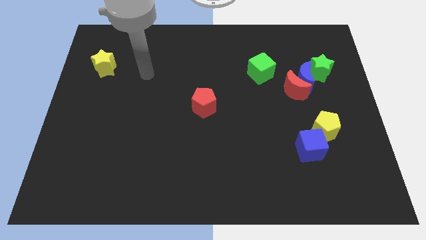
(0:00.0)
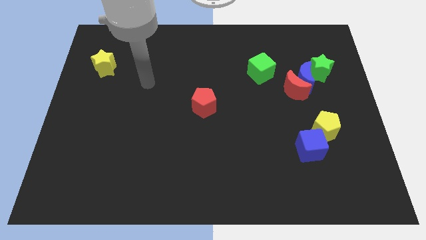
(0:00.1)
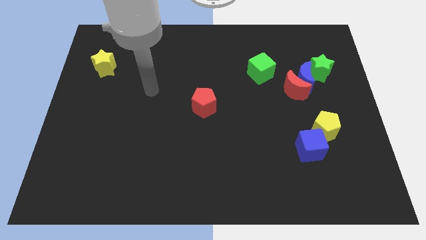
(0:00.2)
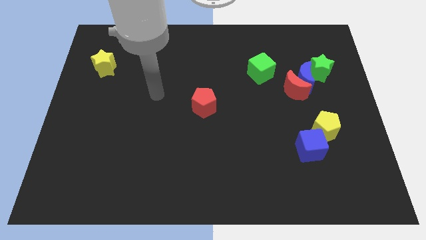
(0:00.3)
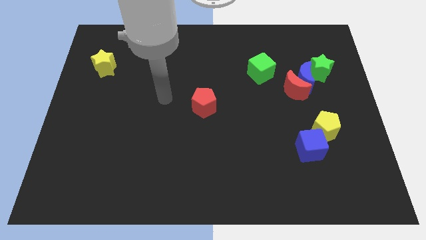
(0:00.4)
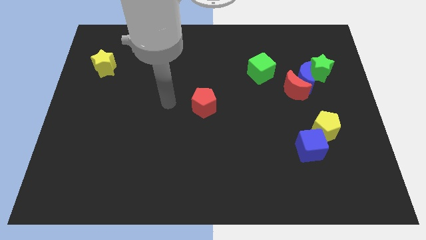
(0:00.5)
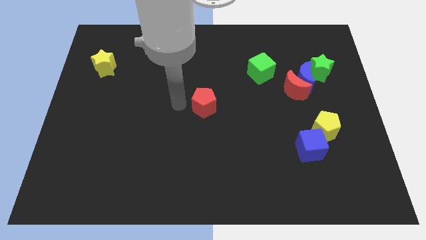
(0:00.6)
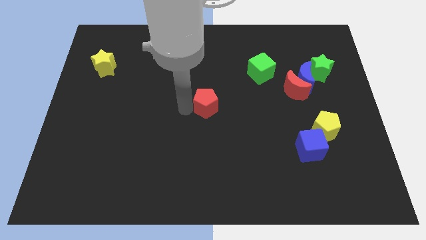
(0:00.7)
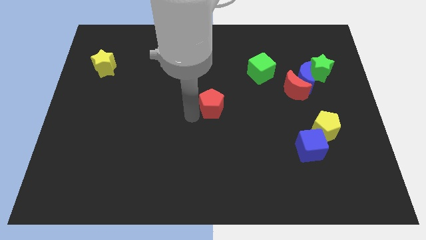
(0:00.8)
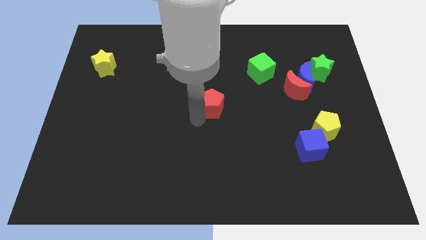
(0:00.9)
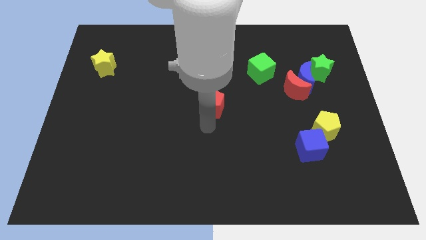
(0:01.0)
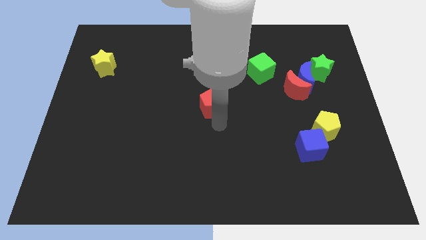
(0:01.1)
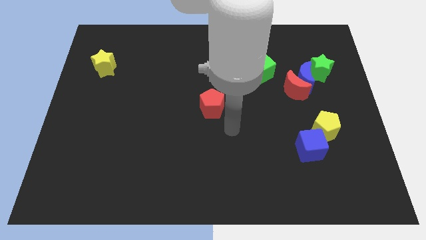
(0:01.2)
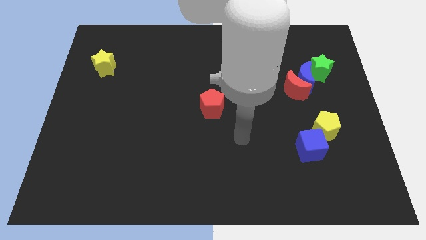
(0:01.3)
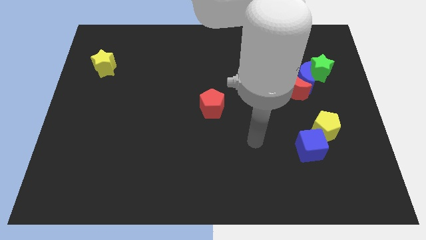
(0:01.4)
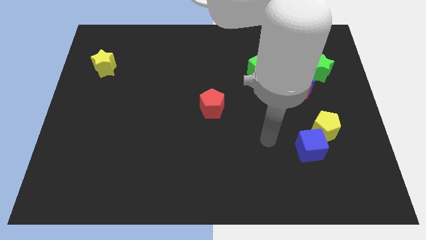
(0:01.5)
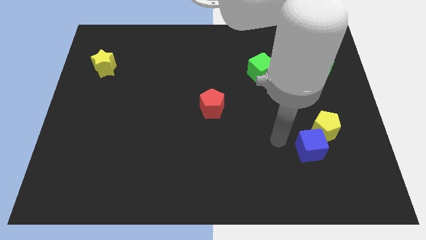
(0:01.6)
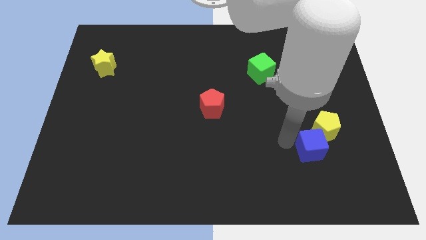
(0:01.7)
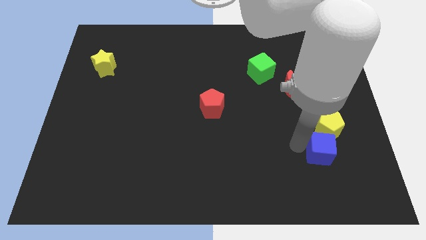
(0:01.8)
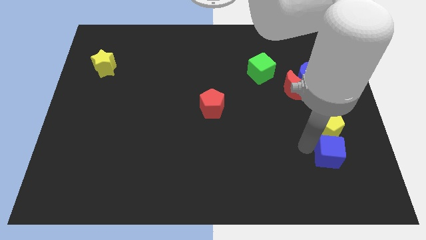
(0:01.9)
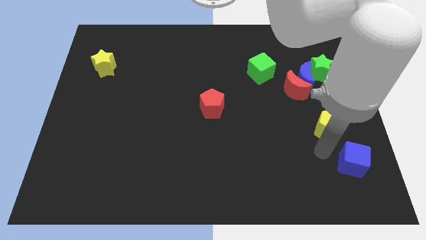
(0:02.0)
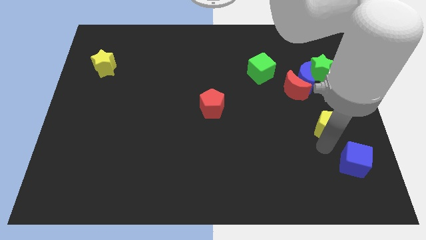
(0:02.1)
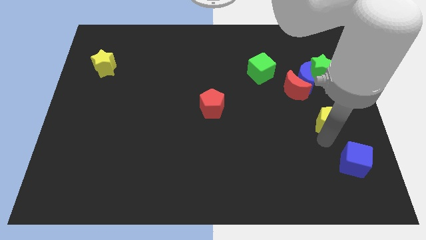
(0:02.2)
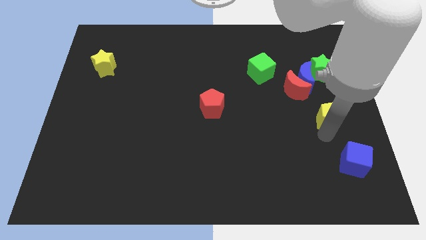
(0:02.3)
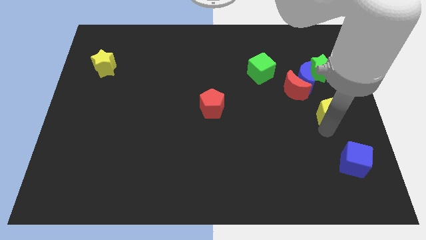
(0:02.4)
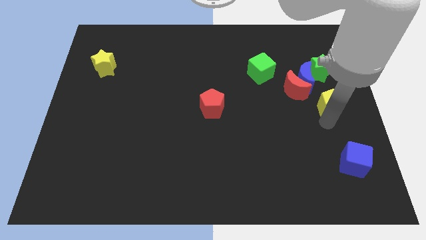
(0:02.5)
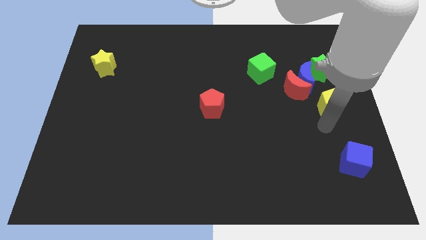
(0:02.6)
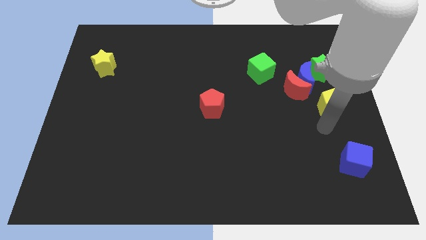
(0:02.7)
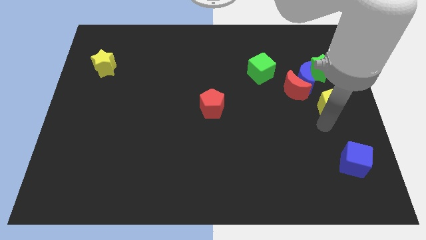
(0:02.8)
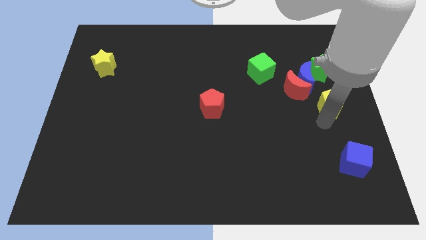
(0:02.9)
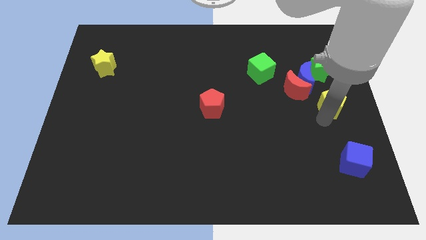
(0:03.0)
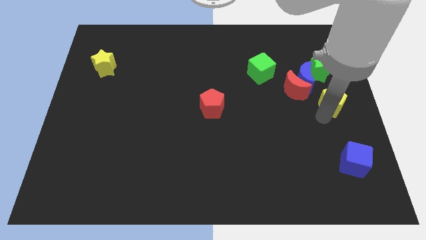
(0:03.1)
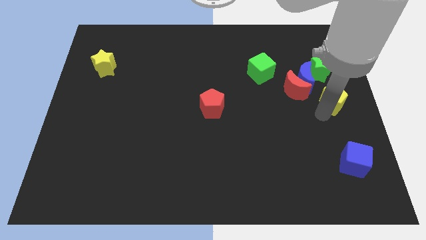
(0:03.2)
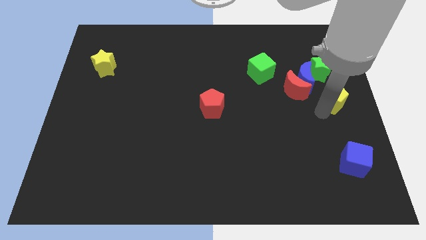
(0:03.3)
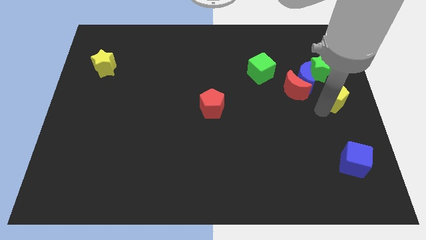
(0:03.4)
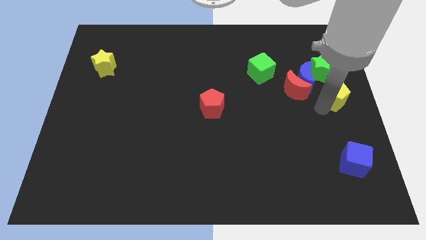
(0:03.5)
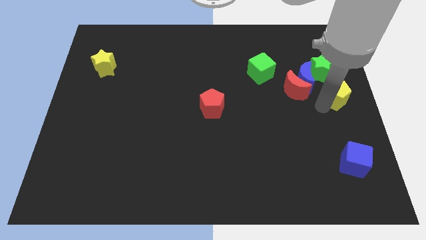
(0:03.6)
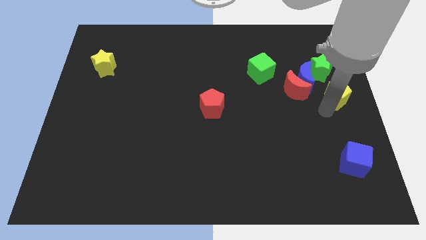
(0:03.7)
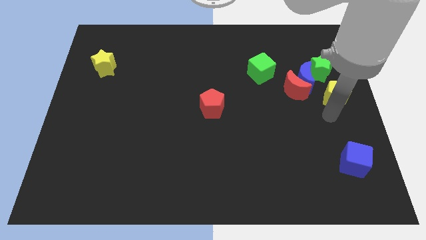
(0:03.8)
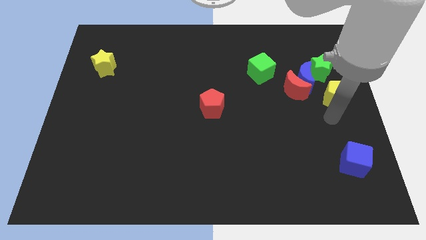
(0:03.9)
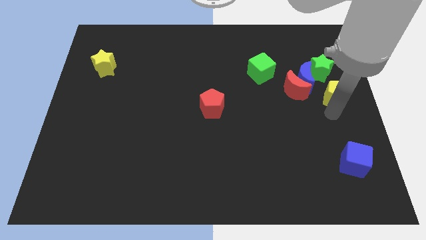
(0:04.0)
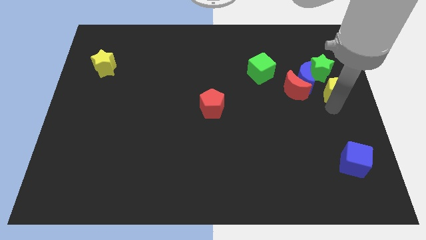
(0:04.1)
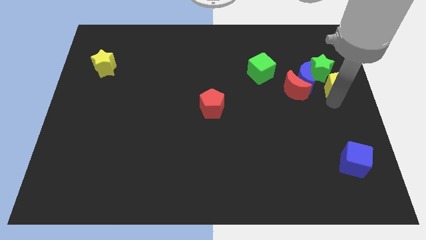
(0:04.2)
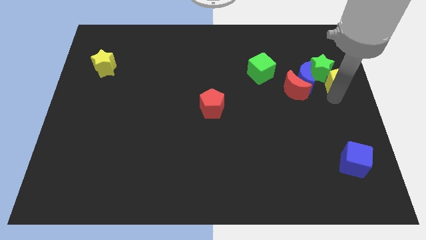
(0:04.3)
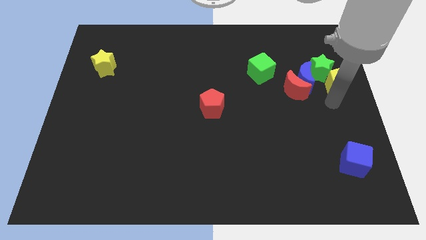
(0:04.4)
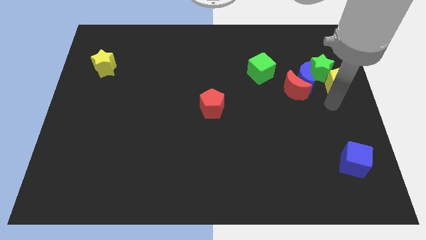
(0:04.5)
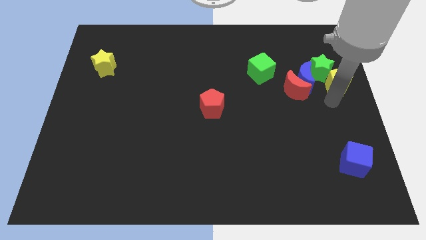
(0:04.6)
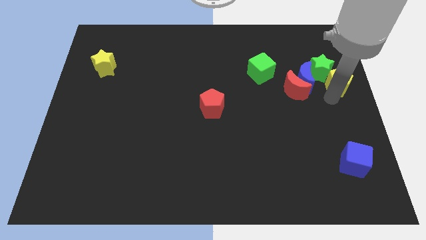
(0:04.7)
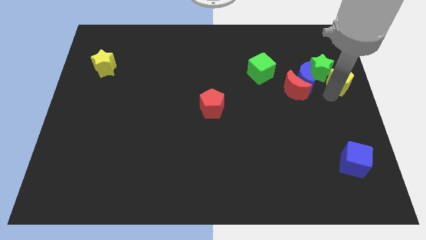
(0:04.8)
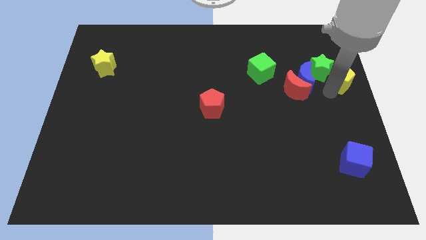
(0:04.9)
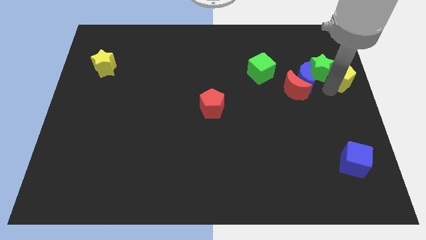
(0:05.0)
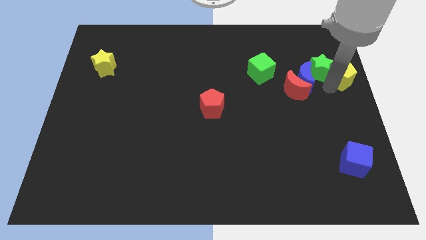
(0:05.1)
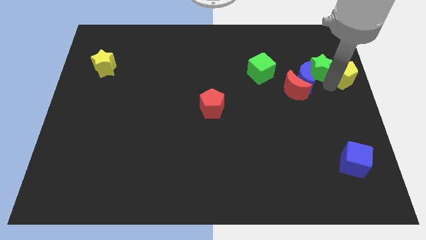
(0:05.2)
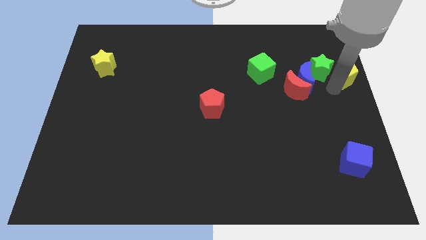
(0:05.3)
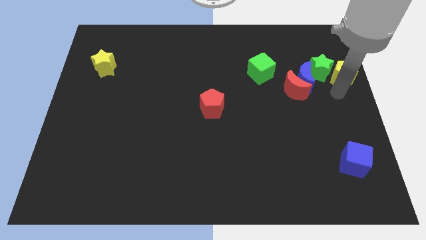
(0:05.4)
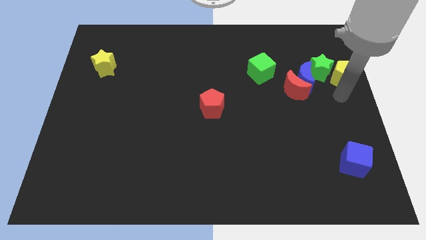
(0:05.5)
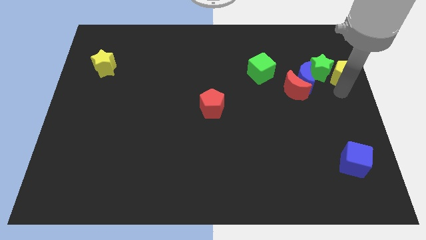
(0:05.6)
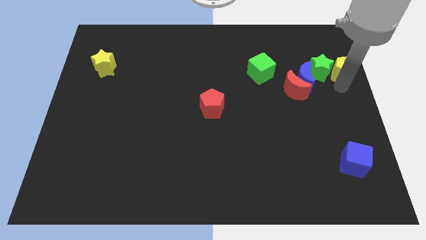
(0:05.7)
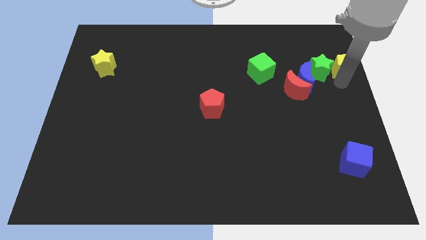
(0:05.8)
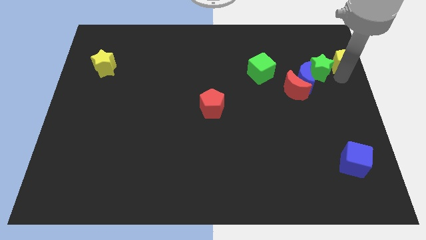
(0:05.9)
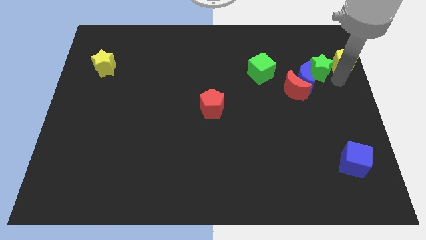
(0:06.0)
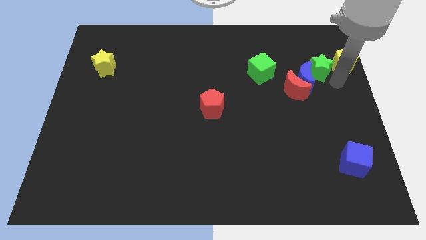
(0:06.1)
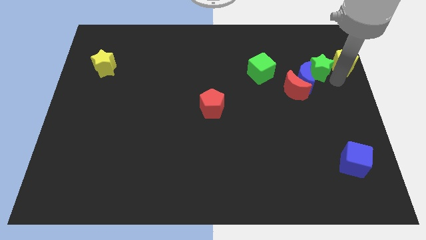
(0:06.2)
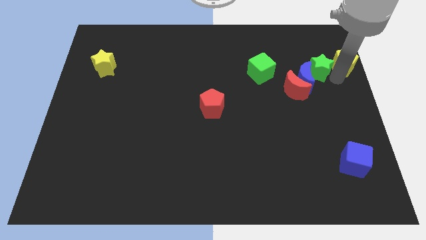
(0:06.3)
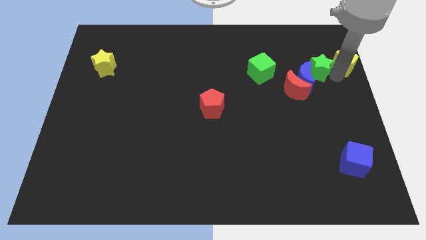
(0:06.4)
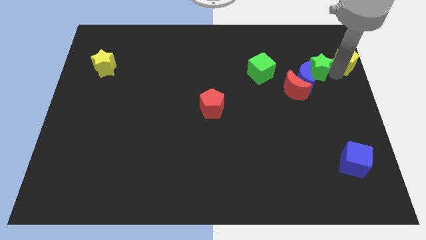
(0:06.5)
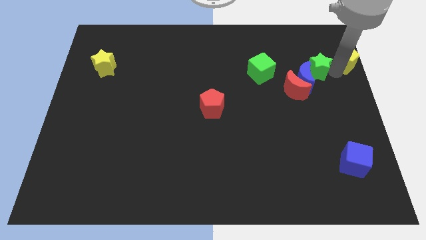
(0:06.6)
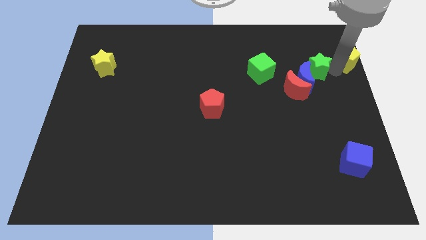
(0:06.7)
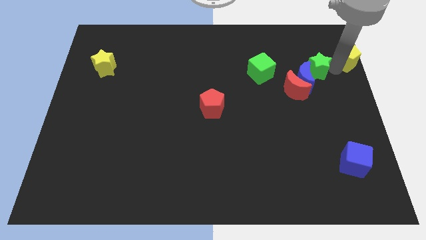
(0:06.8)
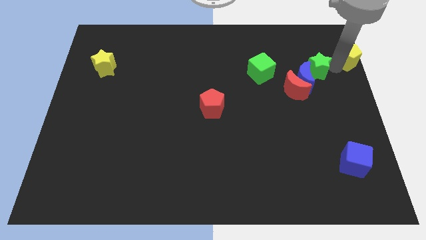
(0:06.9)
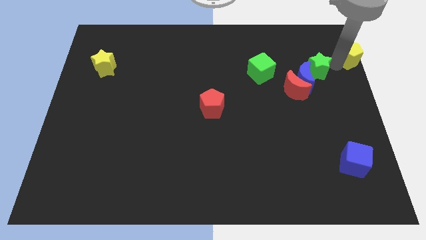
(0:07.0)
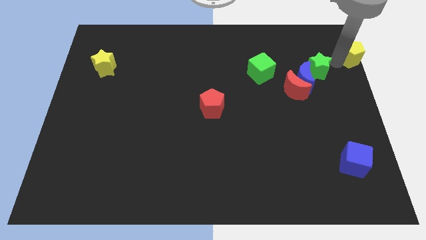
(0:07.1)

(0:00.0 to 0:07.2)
put the yellow pentagon to the upper right corner
